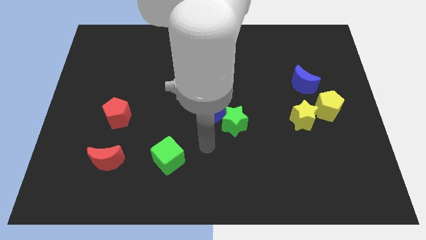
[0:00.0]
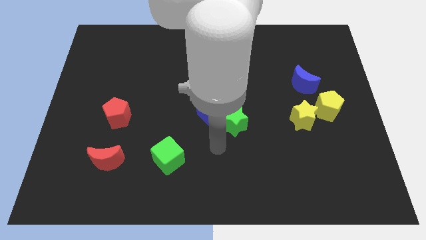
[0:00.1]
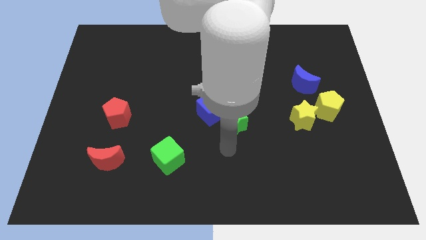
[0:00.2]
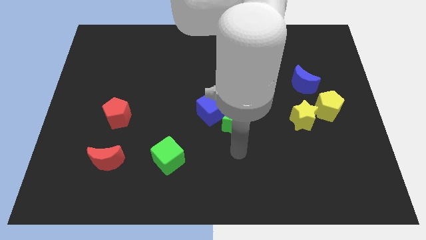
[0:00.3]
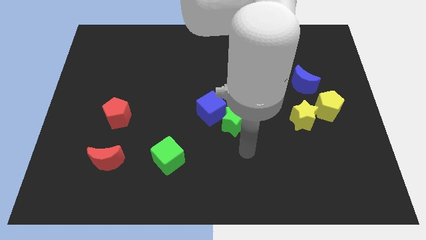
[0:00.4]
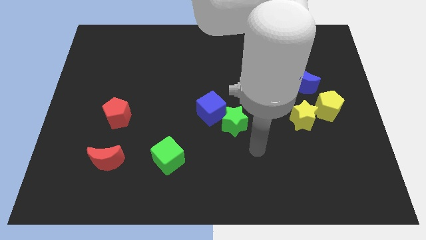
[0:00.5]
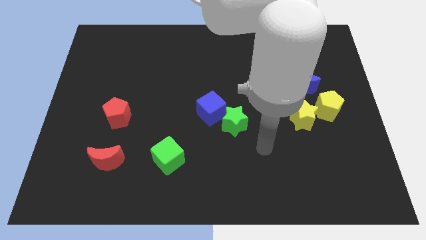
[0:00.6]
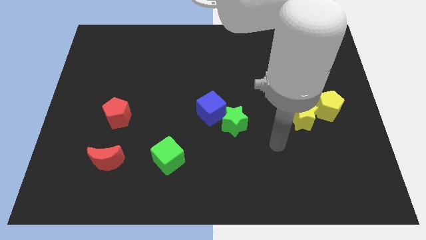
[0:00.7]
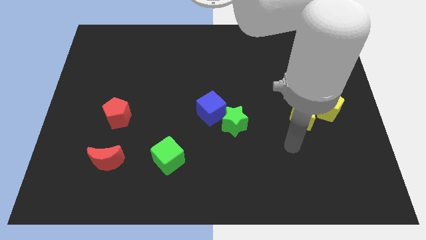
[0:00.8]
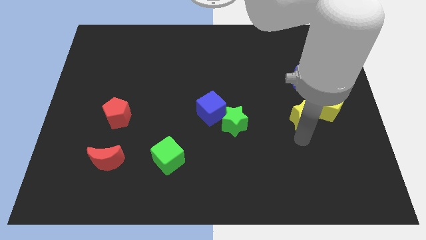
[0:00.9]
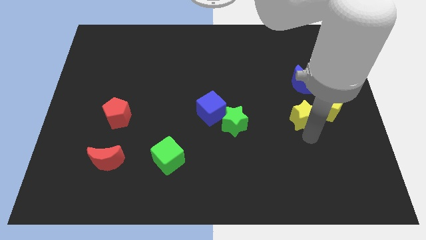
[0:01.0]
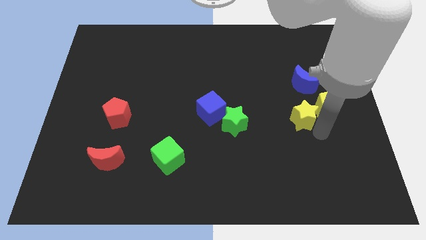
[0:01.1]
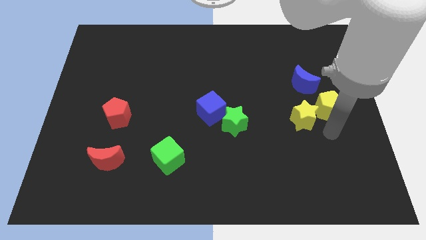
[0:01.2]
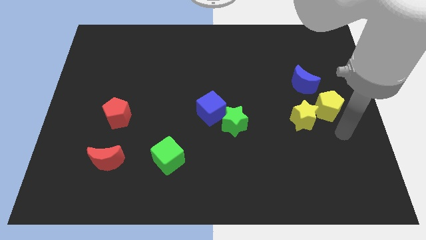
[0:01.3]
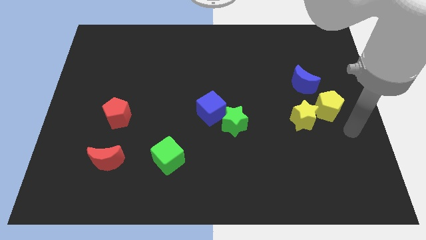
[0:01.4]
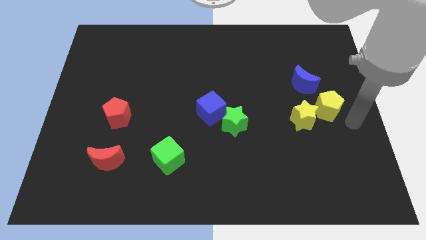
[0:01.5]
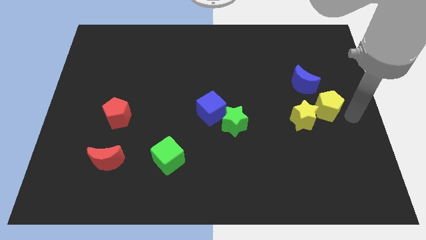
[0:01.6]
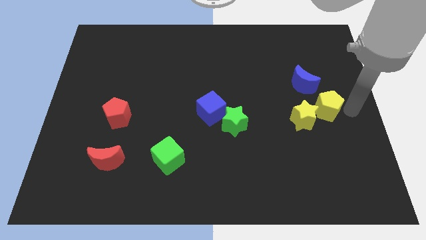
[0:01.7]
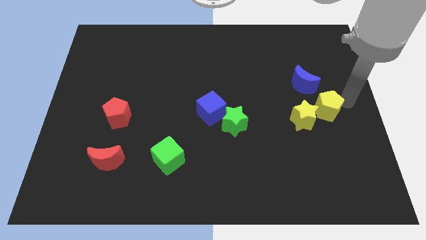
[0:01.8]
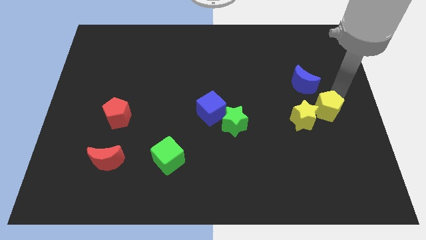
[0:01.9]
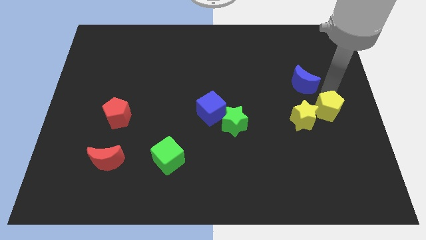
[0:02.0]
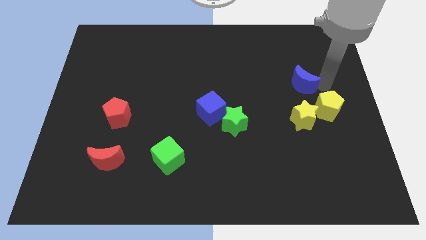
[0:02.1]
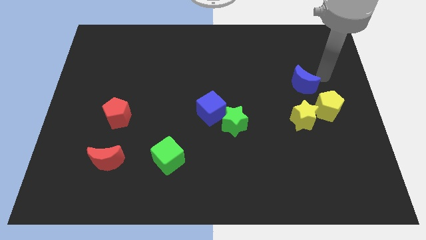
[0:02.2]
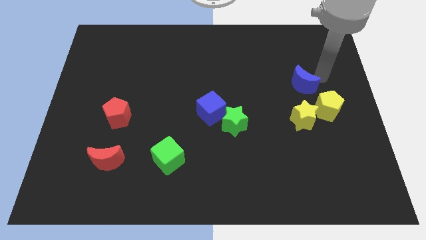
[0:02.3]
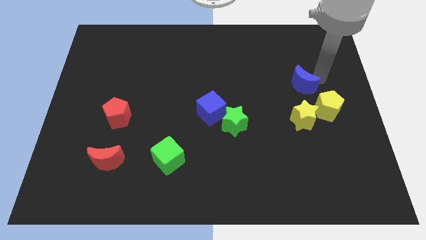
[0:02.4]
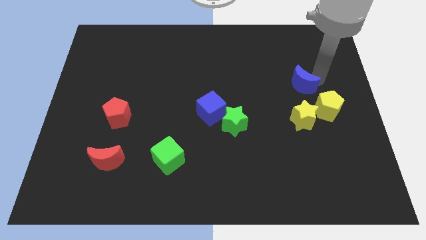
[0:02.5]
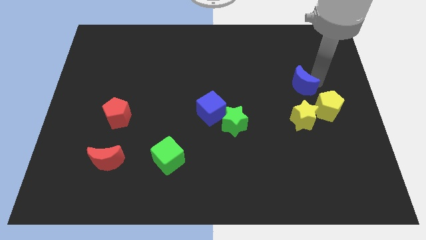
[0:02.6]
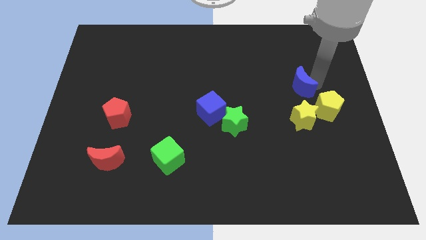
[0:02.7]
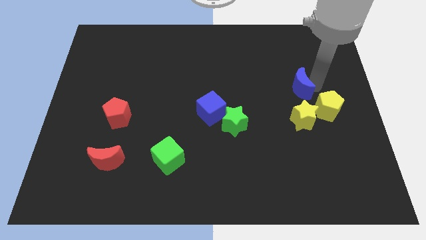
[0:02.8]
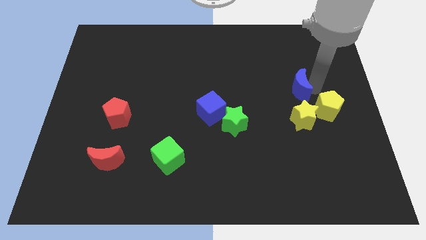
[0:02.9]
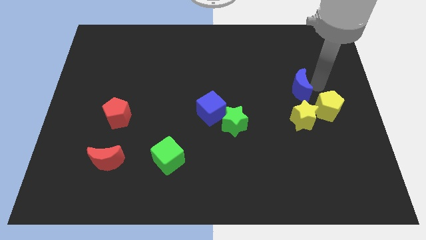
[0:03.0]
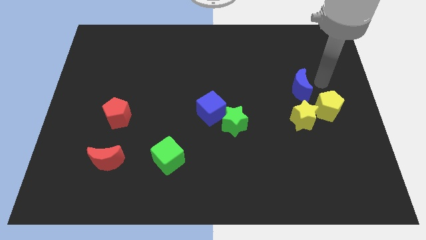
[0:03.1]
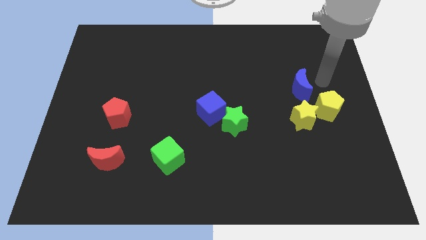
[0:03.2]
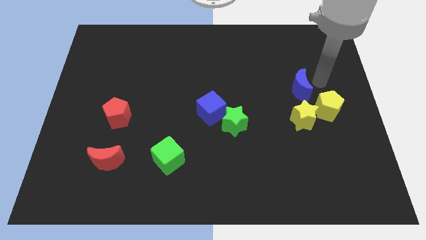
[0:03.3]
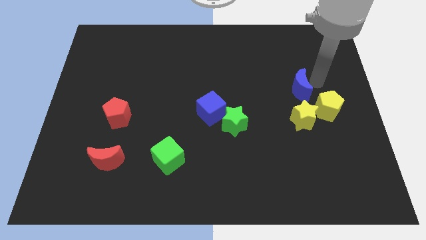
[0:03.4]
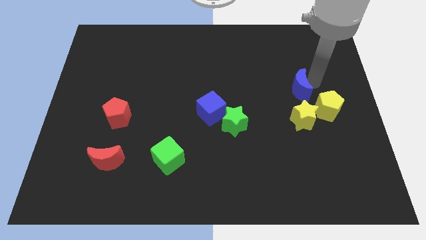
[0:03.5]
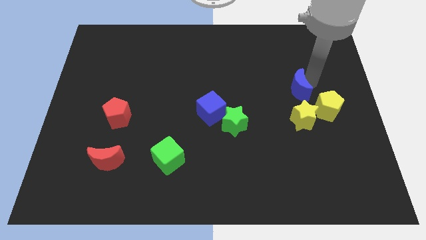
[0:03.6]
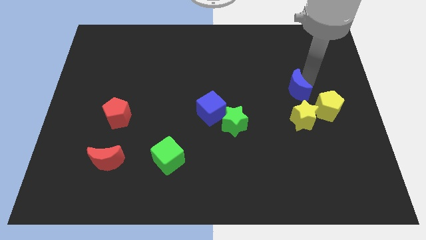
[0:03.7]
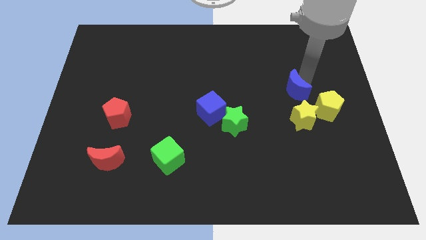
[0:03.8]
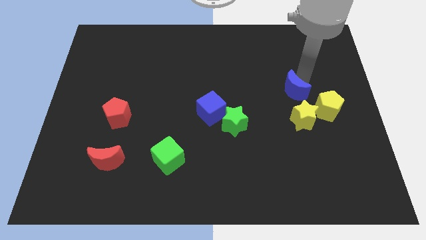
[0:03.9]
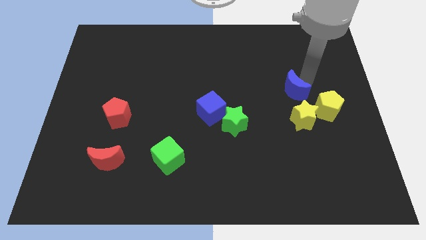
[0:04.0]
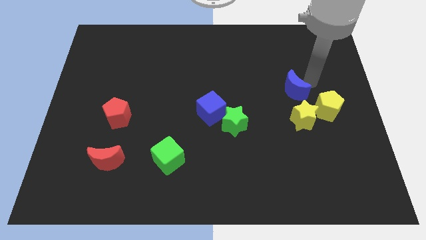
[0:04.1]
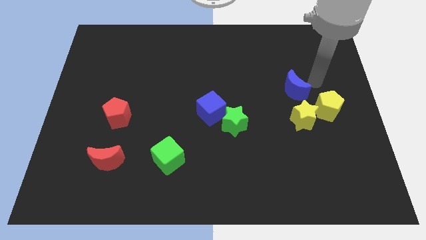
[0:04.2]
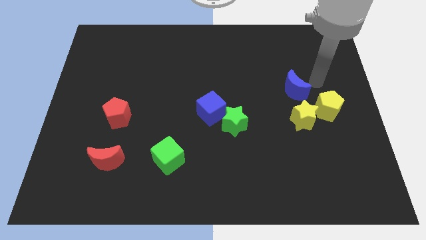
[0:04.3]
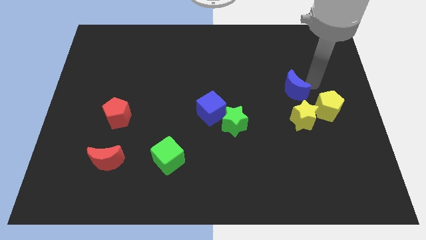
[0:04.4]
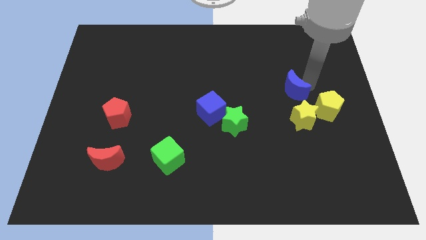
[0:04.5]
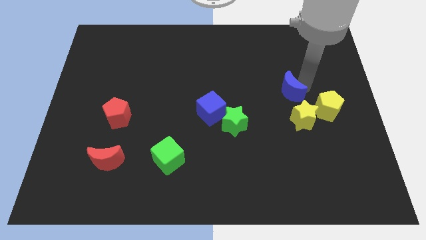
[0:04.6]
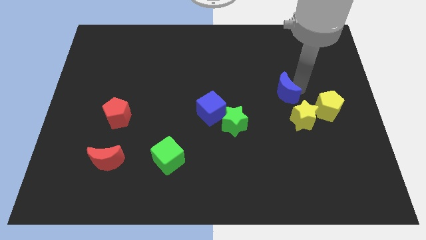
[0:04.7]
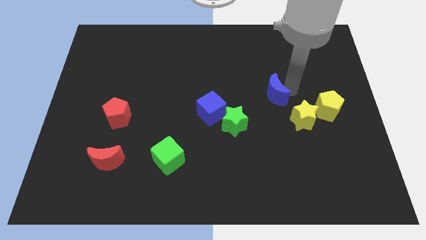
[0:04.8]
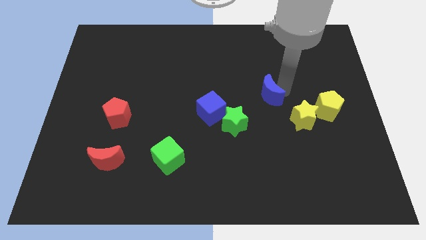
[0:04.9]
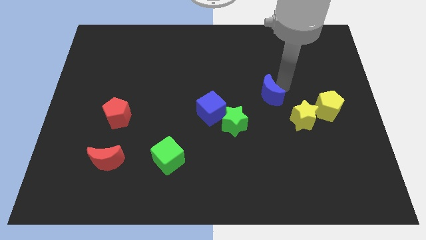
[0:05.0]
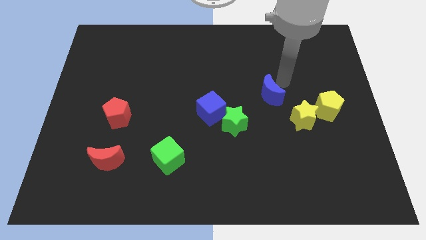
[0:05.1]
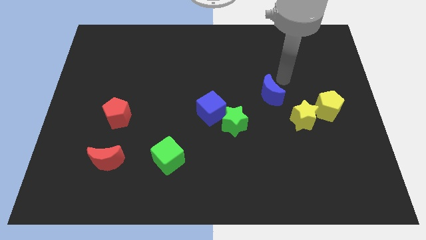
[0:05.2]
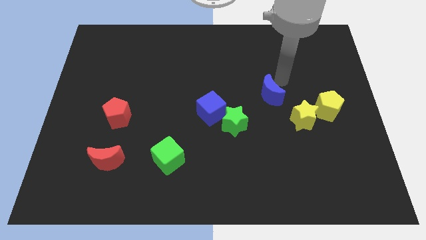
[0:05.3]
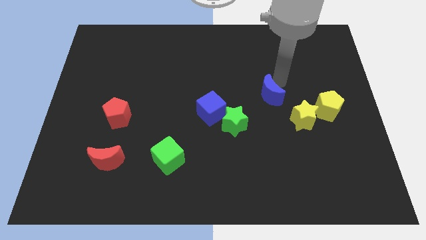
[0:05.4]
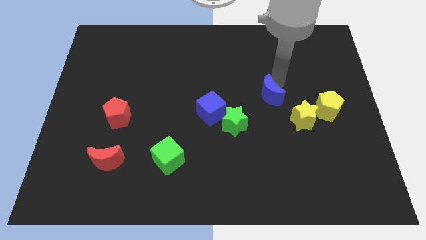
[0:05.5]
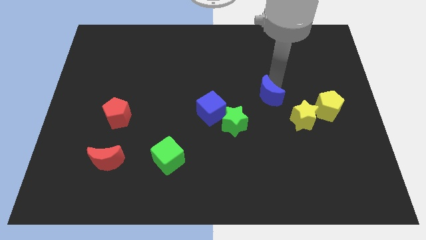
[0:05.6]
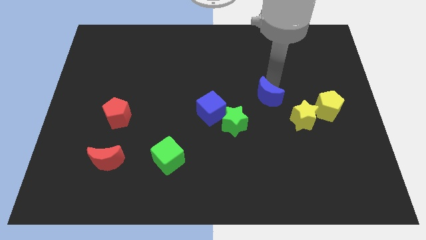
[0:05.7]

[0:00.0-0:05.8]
slide the blue moon just right of the blue cube
